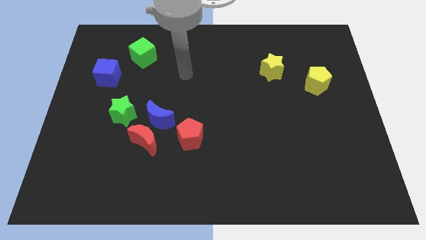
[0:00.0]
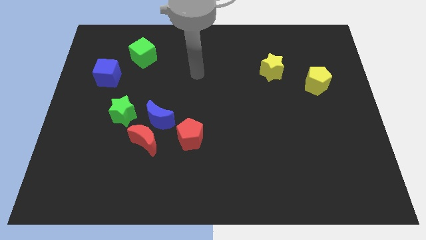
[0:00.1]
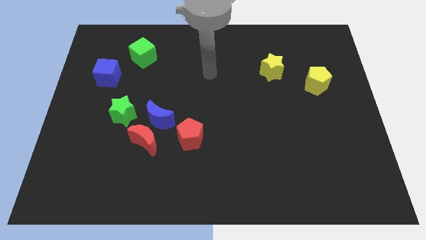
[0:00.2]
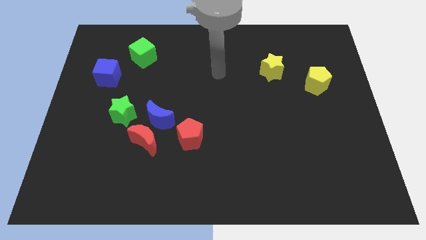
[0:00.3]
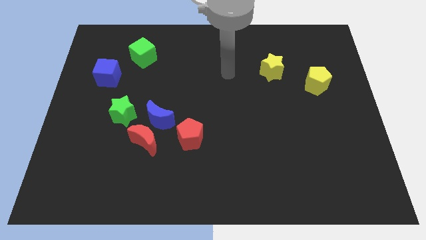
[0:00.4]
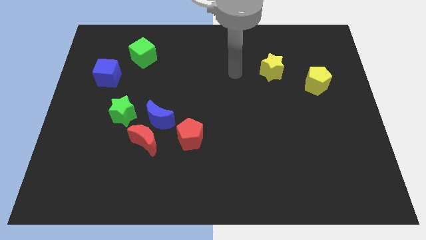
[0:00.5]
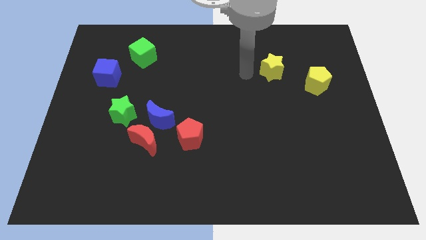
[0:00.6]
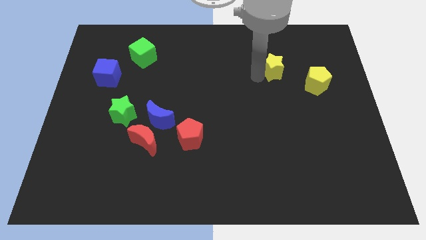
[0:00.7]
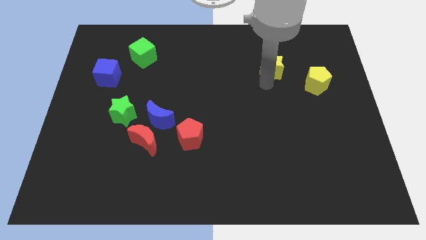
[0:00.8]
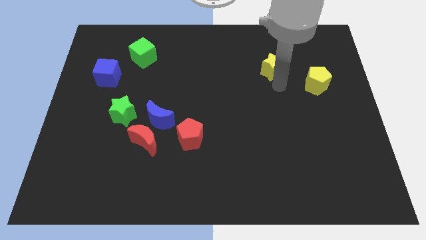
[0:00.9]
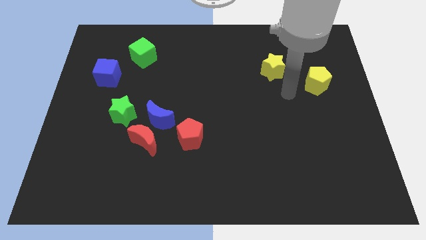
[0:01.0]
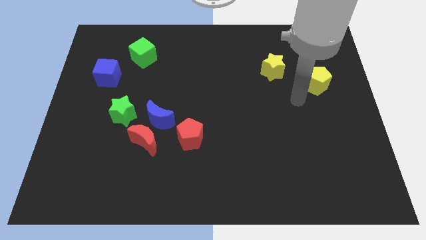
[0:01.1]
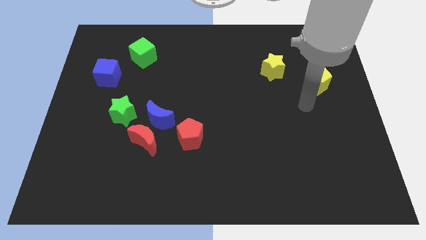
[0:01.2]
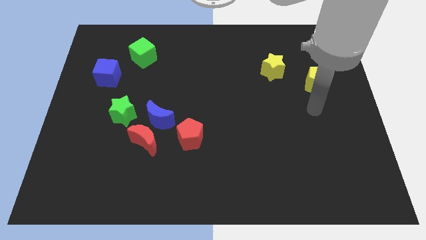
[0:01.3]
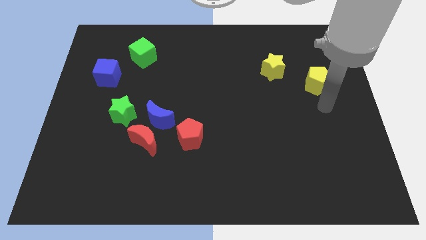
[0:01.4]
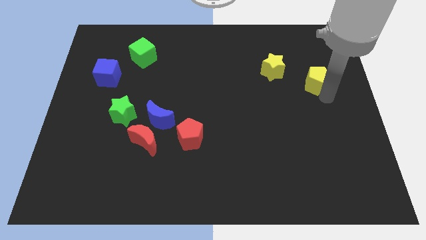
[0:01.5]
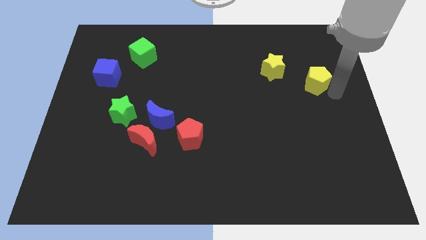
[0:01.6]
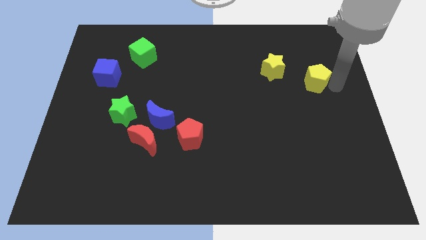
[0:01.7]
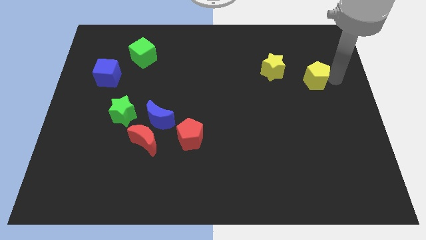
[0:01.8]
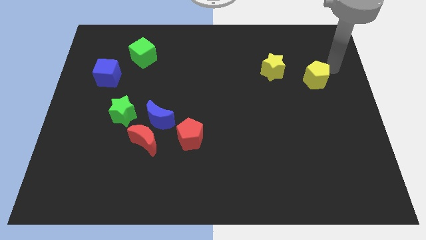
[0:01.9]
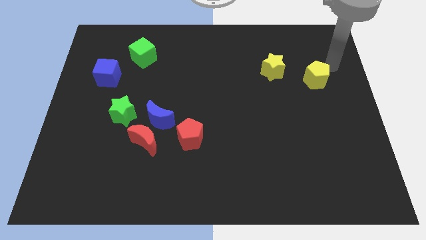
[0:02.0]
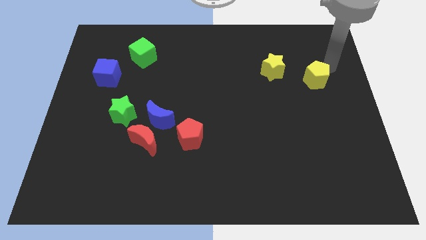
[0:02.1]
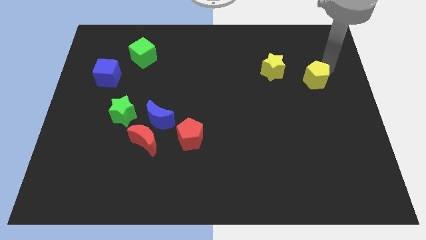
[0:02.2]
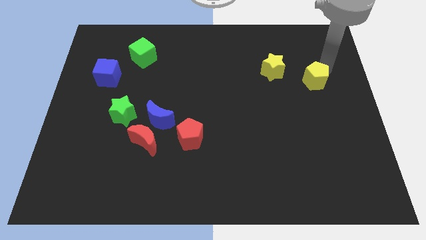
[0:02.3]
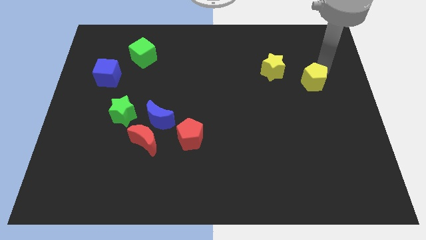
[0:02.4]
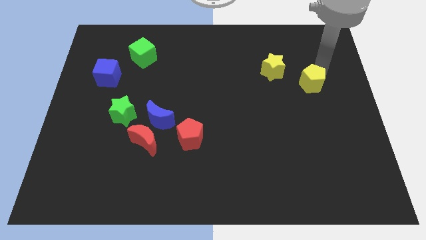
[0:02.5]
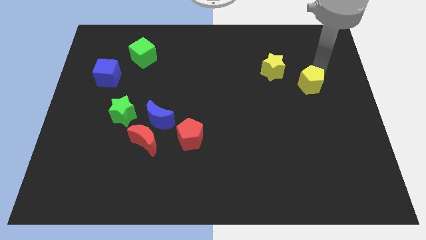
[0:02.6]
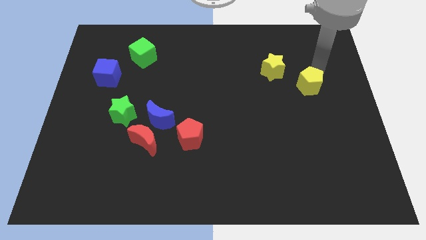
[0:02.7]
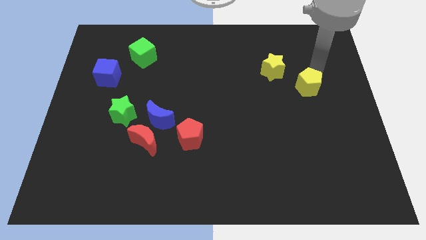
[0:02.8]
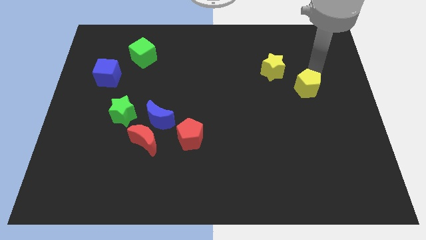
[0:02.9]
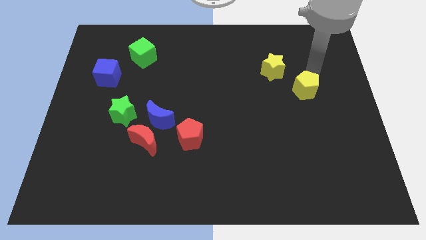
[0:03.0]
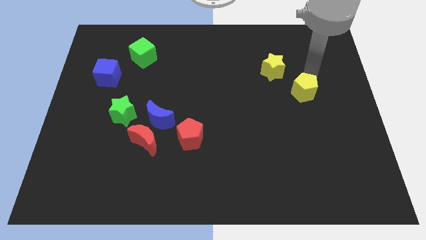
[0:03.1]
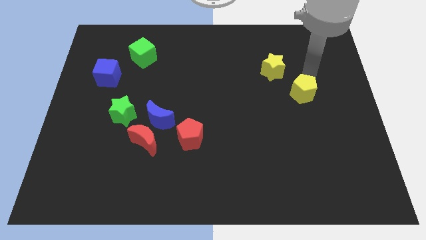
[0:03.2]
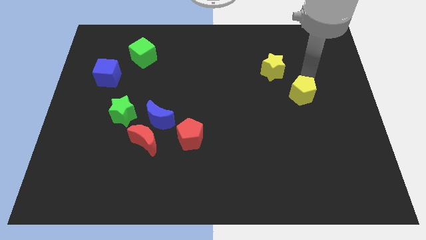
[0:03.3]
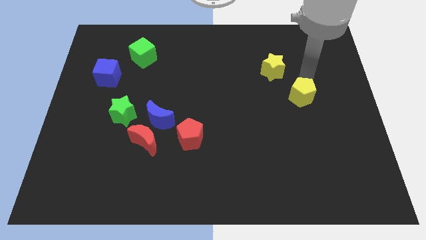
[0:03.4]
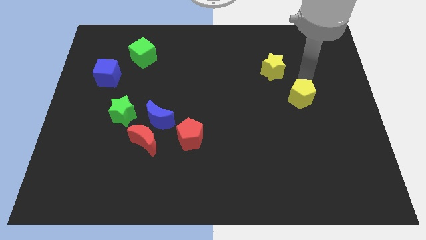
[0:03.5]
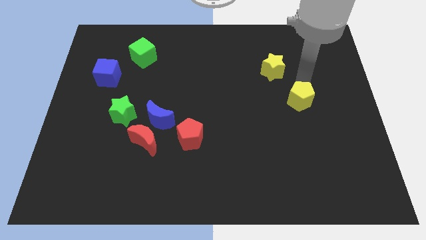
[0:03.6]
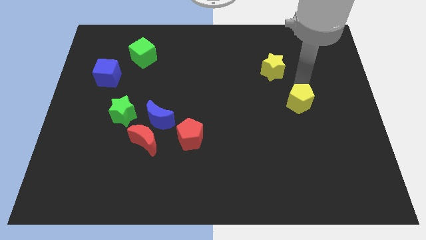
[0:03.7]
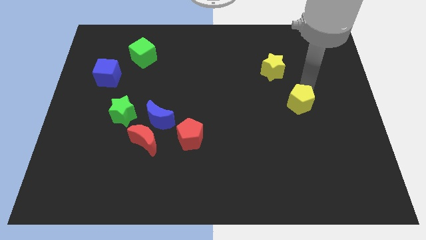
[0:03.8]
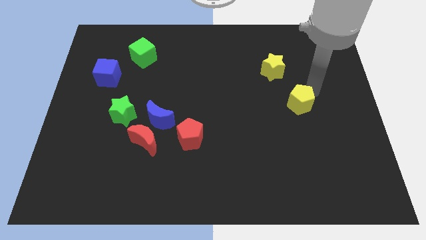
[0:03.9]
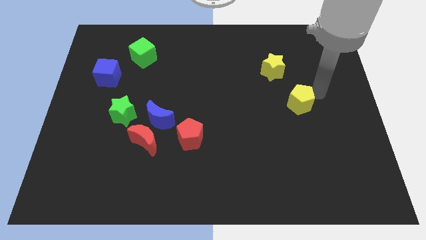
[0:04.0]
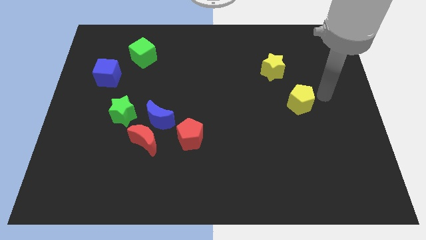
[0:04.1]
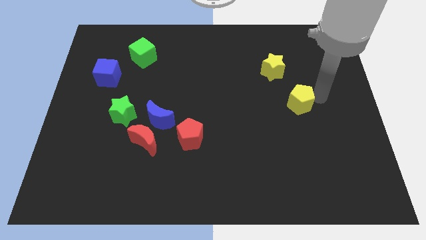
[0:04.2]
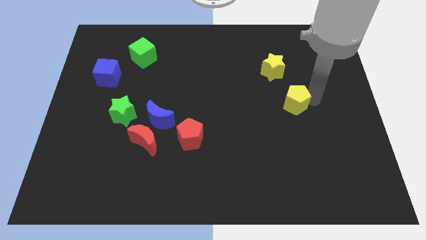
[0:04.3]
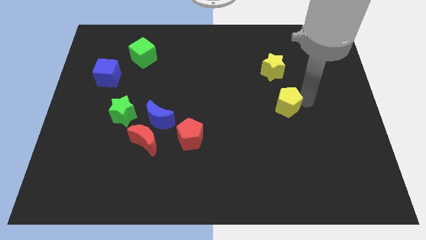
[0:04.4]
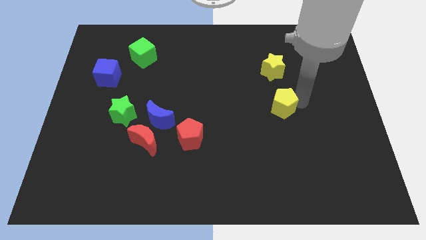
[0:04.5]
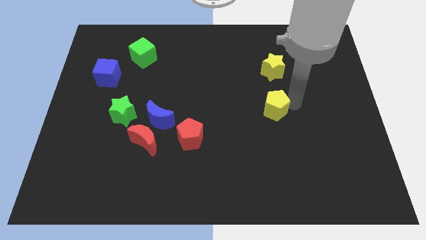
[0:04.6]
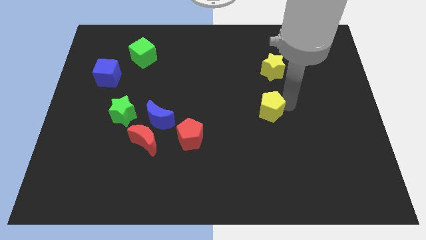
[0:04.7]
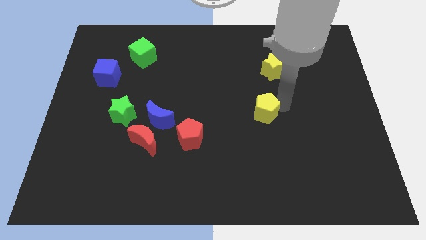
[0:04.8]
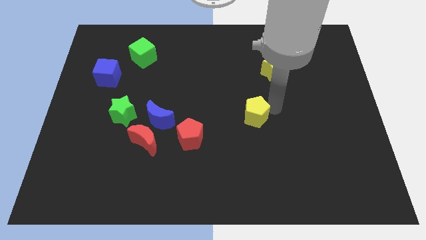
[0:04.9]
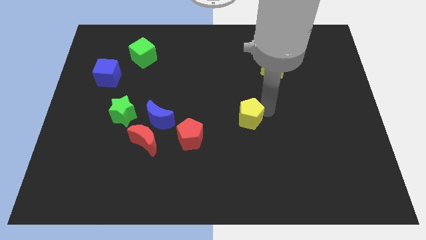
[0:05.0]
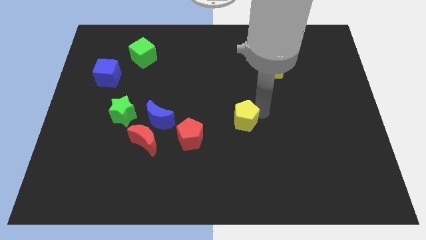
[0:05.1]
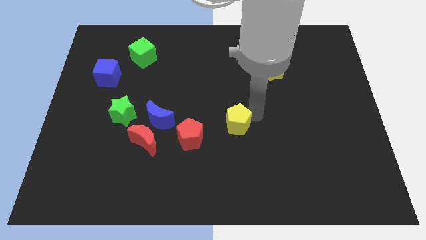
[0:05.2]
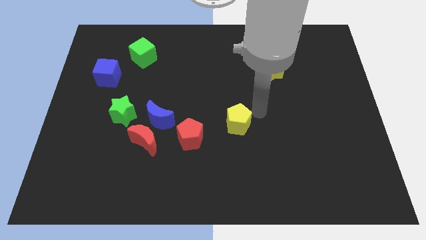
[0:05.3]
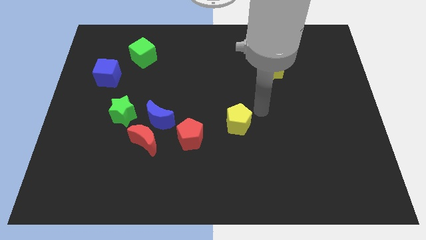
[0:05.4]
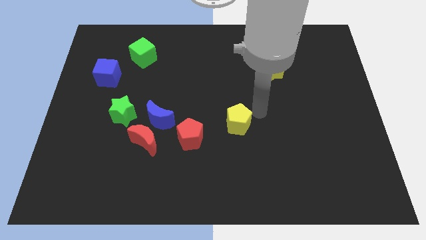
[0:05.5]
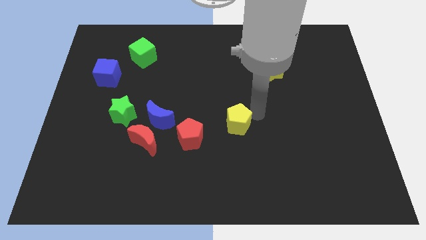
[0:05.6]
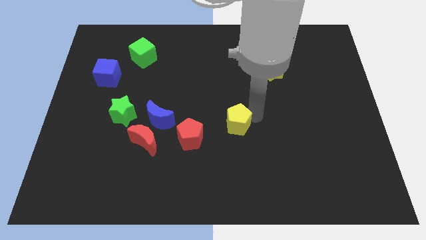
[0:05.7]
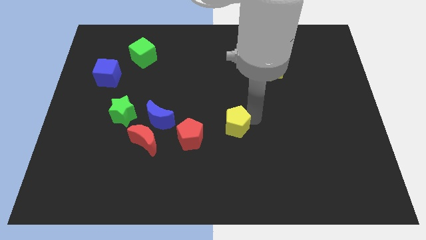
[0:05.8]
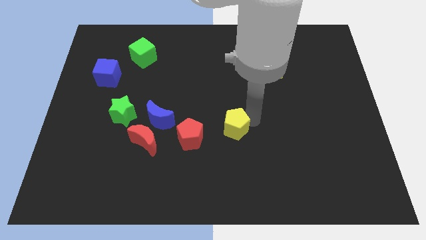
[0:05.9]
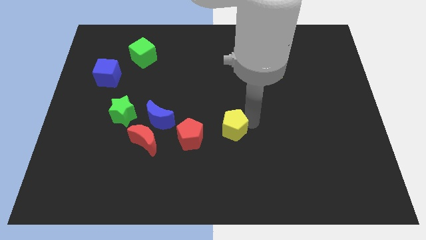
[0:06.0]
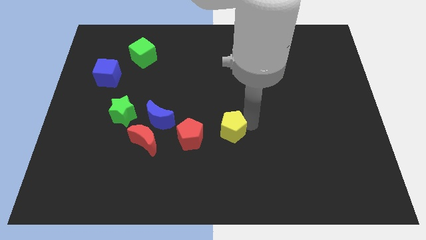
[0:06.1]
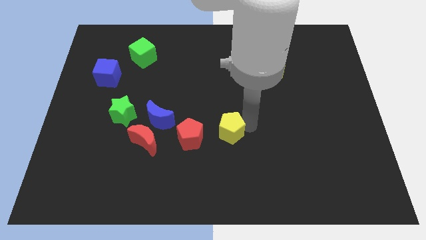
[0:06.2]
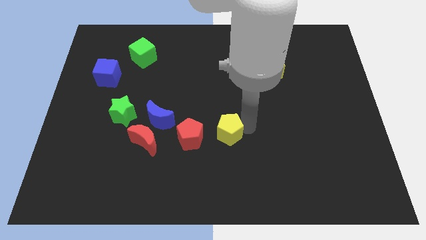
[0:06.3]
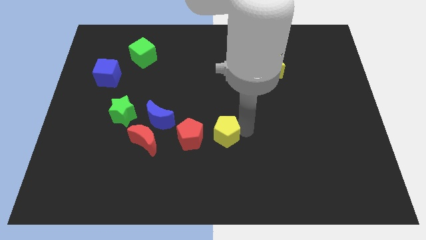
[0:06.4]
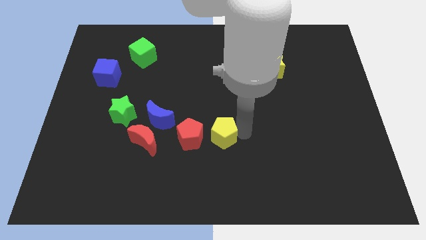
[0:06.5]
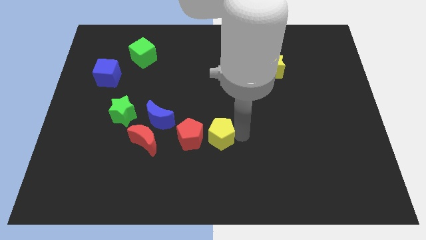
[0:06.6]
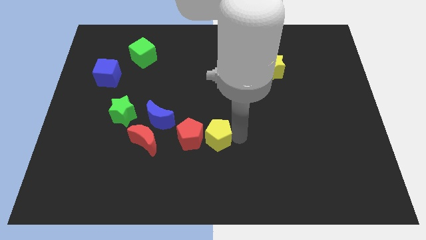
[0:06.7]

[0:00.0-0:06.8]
slide the yellow pentagon to the right side of the red moon

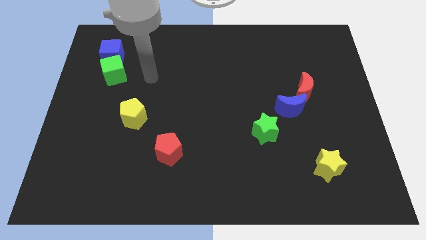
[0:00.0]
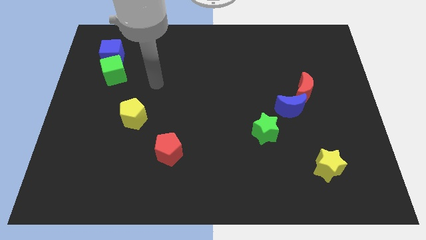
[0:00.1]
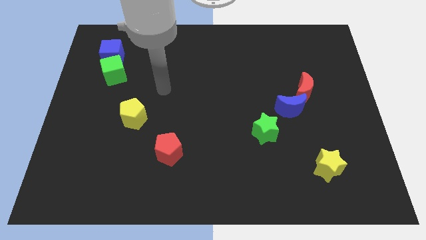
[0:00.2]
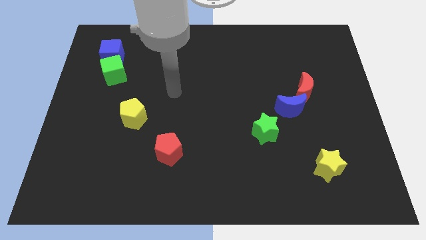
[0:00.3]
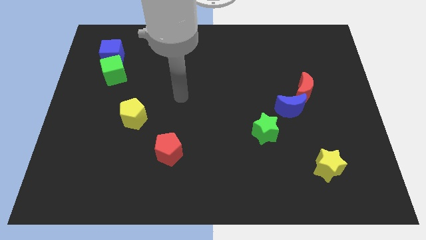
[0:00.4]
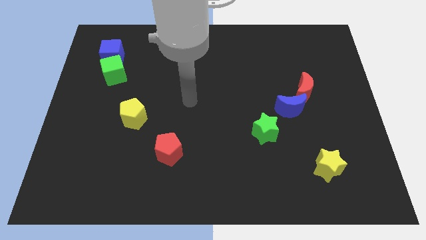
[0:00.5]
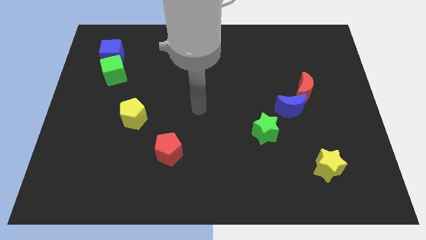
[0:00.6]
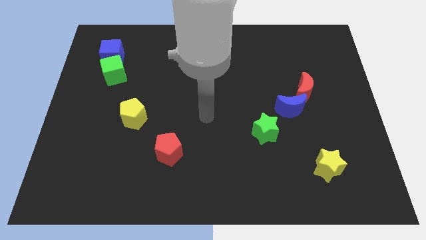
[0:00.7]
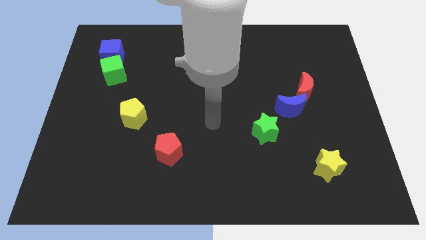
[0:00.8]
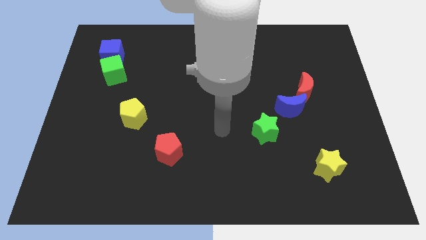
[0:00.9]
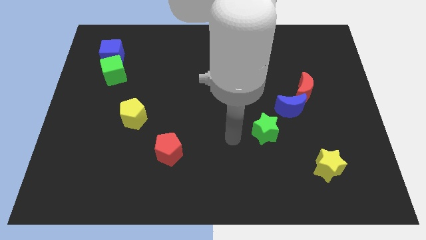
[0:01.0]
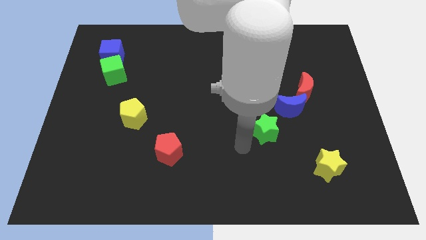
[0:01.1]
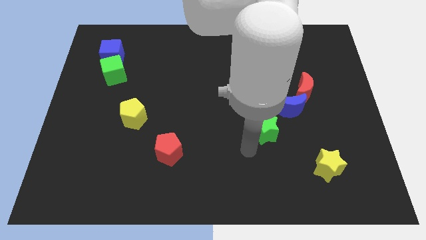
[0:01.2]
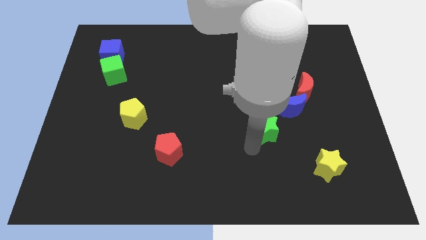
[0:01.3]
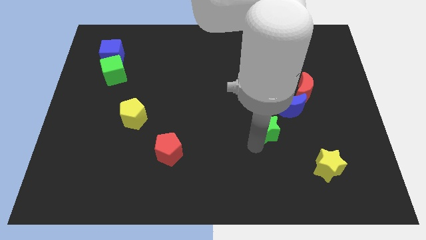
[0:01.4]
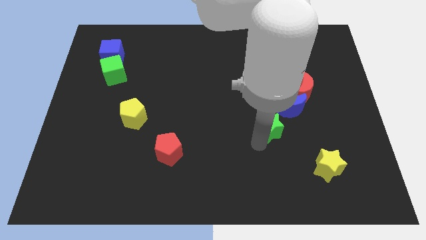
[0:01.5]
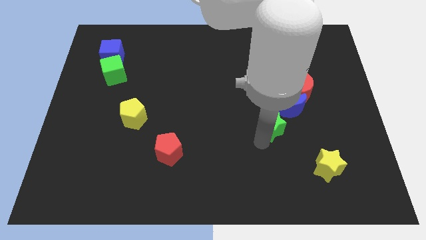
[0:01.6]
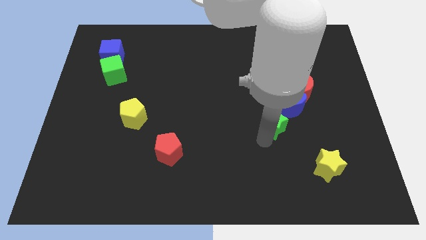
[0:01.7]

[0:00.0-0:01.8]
slide the green star to the bottom left side of the red moon

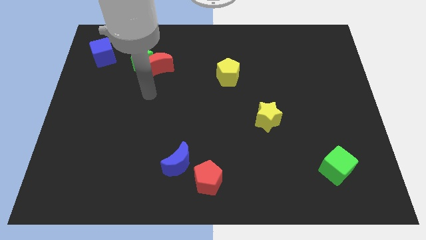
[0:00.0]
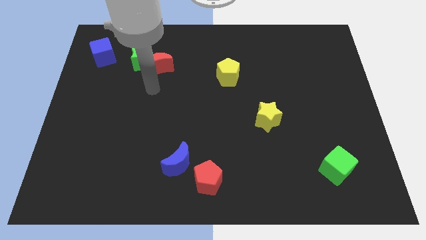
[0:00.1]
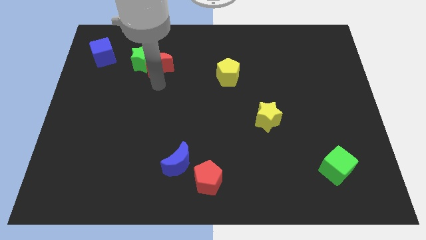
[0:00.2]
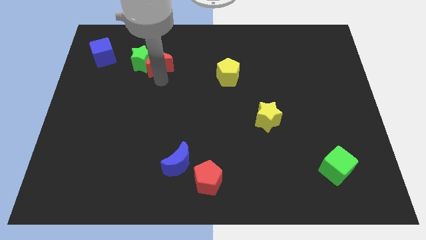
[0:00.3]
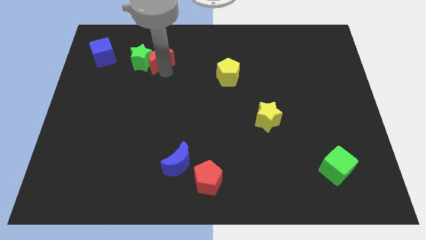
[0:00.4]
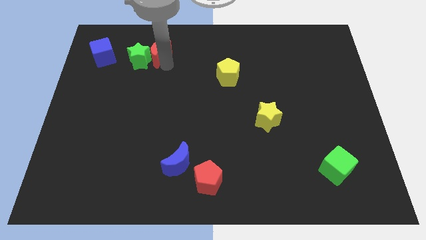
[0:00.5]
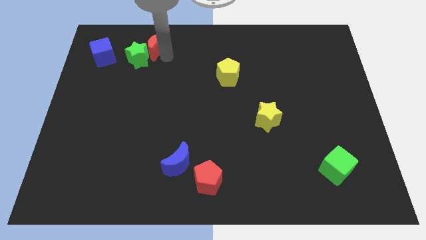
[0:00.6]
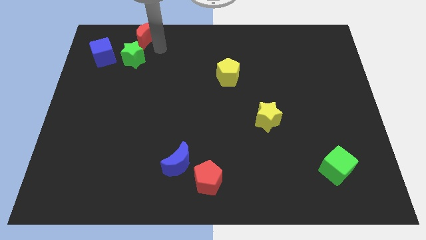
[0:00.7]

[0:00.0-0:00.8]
push the green star to the bottom right of the blue cube
